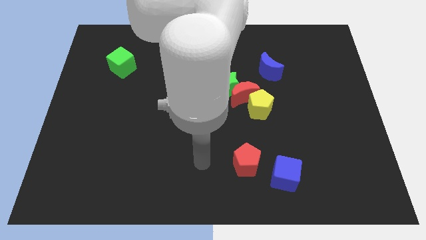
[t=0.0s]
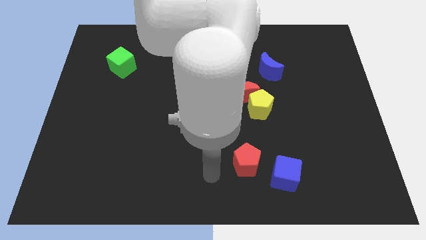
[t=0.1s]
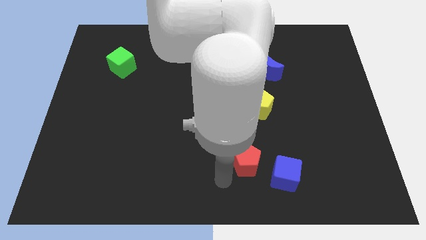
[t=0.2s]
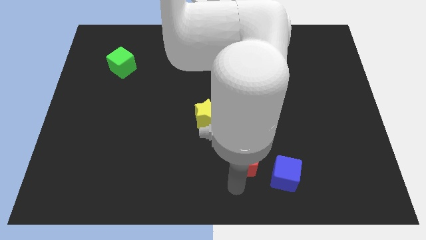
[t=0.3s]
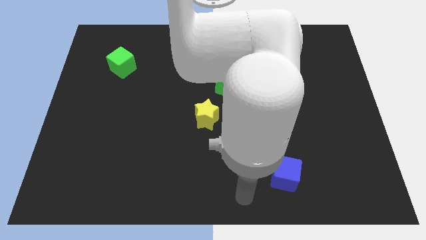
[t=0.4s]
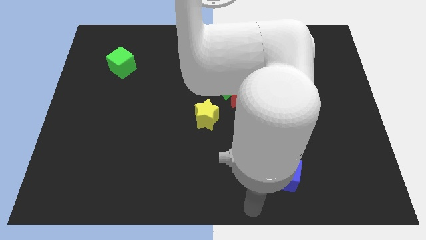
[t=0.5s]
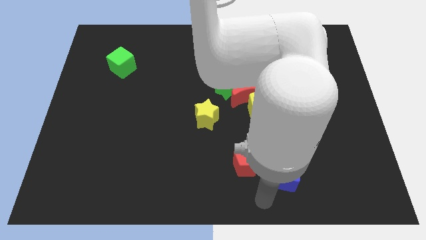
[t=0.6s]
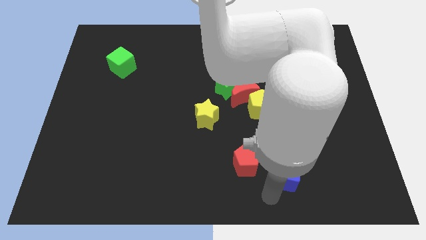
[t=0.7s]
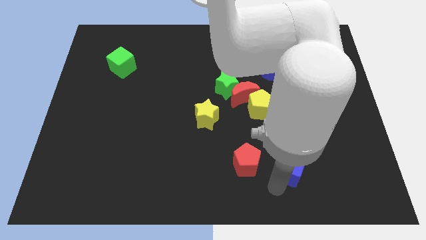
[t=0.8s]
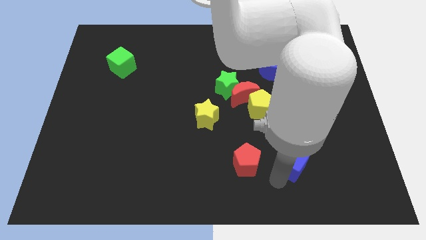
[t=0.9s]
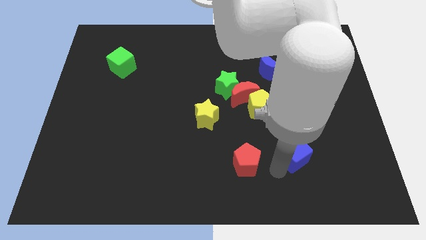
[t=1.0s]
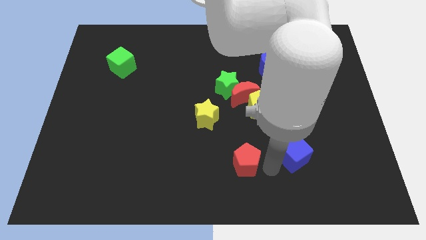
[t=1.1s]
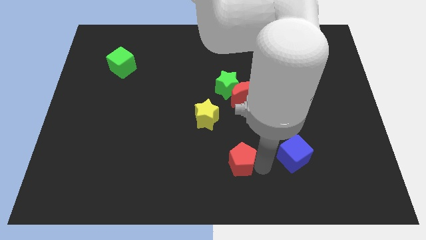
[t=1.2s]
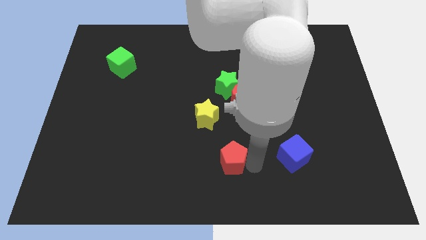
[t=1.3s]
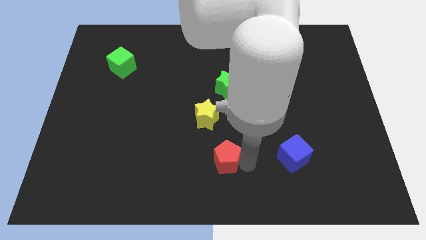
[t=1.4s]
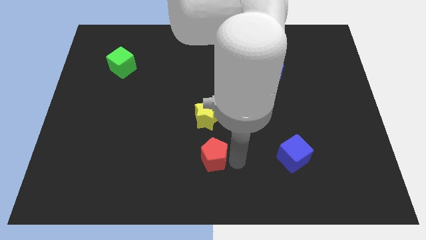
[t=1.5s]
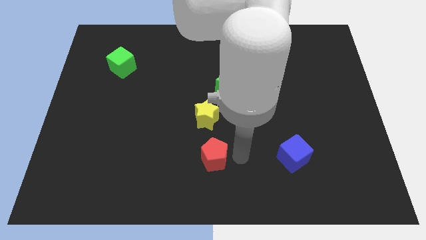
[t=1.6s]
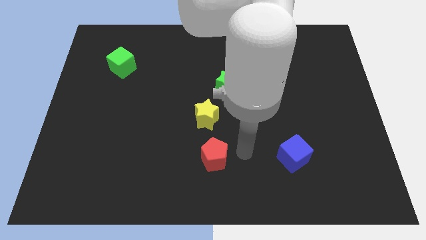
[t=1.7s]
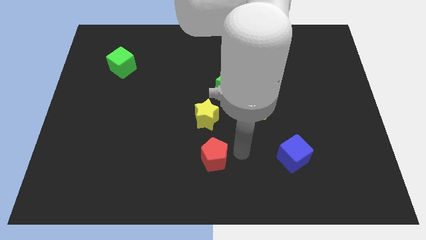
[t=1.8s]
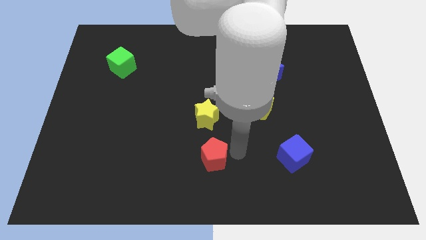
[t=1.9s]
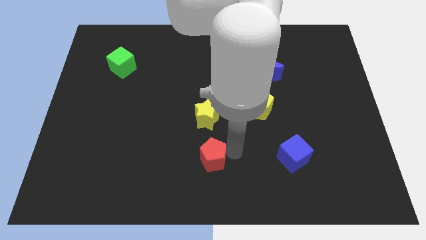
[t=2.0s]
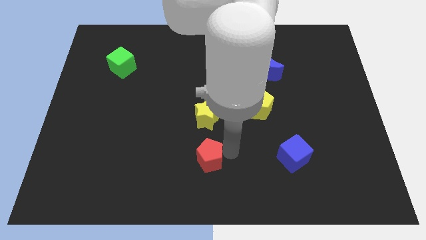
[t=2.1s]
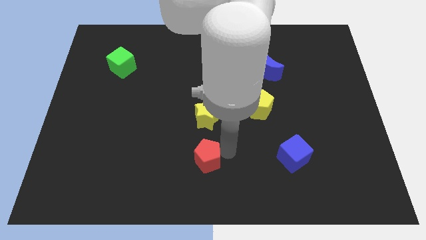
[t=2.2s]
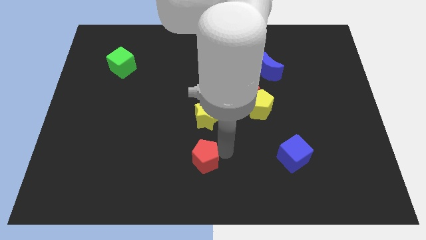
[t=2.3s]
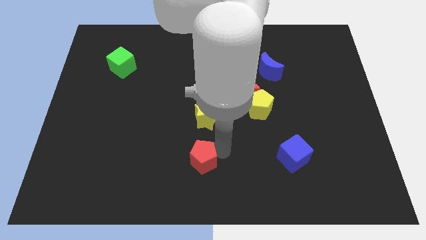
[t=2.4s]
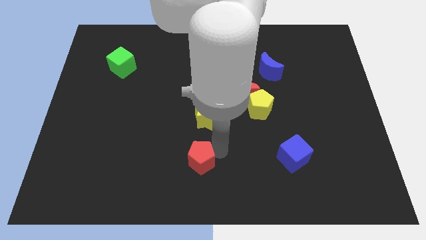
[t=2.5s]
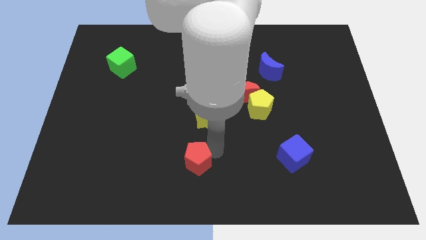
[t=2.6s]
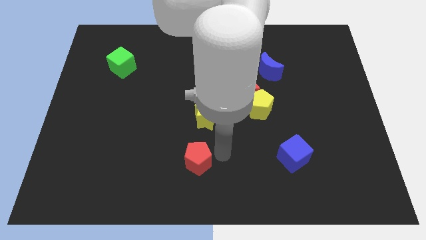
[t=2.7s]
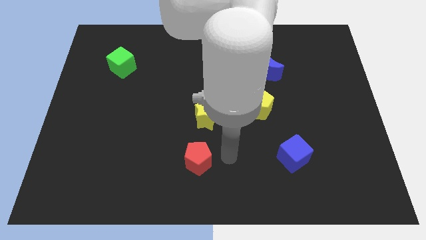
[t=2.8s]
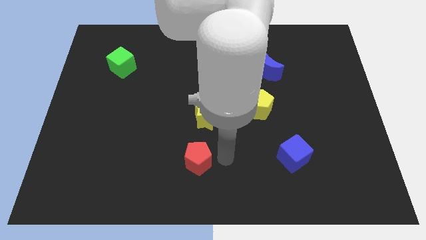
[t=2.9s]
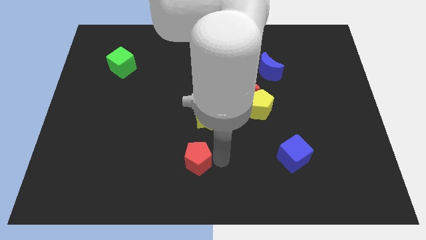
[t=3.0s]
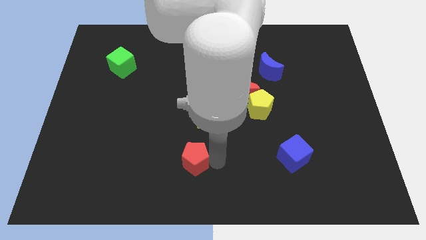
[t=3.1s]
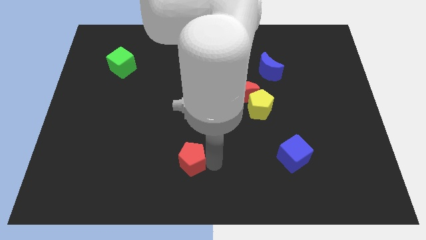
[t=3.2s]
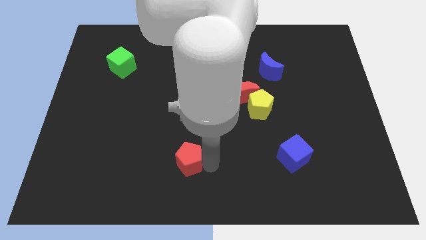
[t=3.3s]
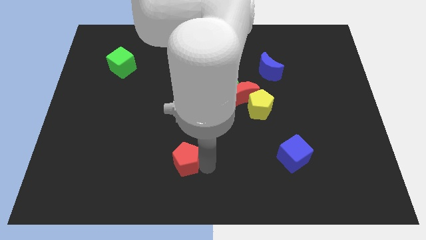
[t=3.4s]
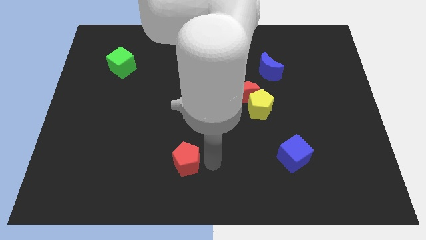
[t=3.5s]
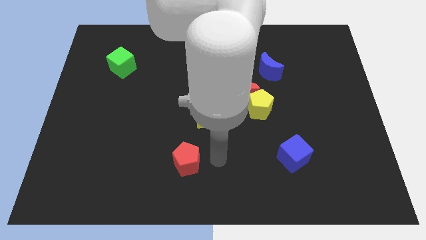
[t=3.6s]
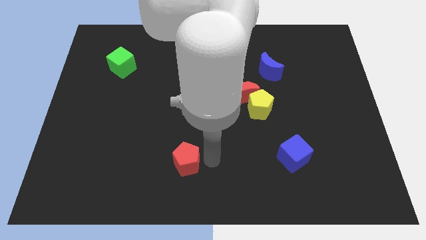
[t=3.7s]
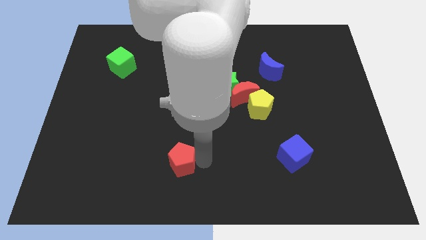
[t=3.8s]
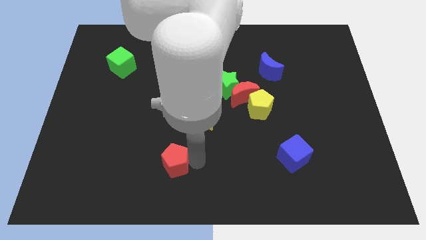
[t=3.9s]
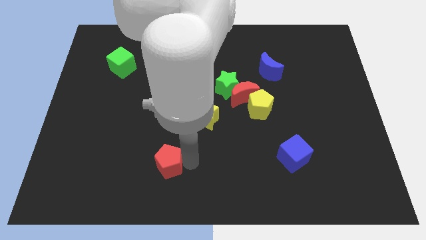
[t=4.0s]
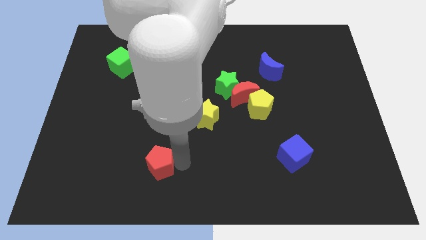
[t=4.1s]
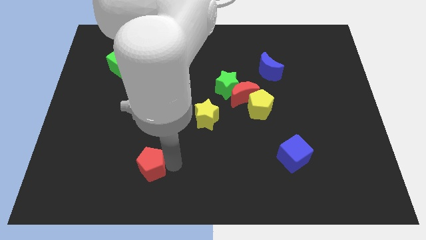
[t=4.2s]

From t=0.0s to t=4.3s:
push the red pentagon to the left

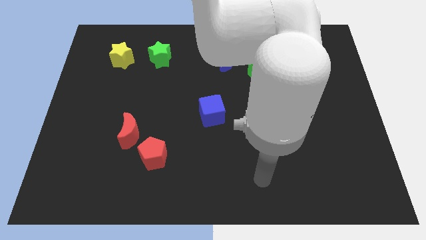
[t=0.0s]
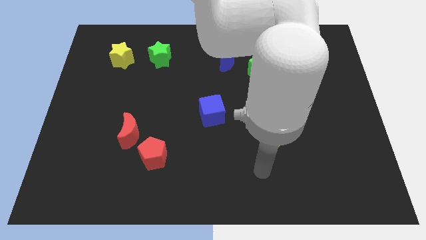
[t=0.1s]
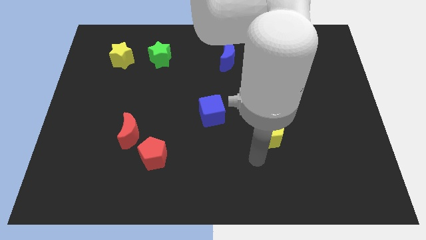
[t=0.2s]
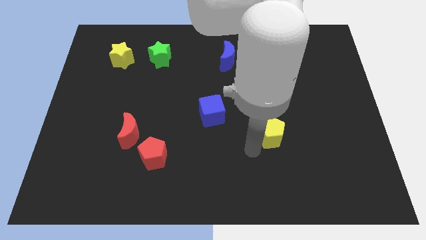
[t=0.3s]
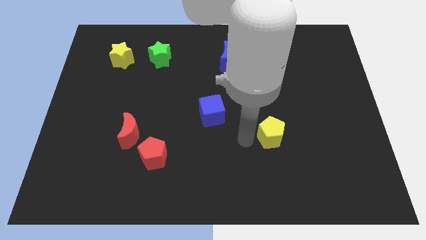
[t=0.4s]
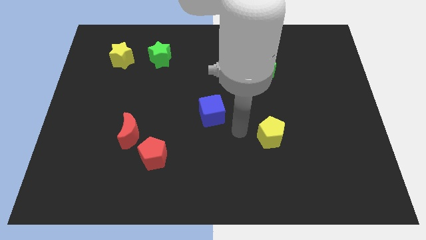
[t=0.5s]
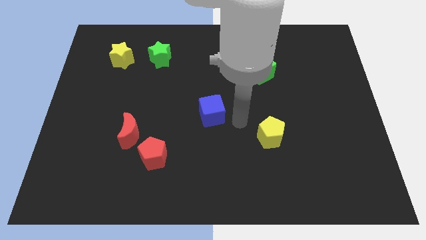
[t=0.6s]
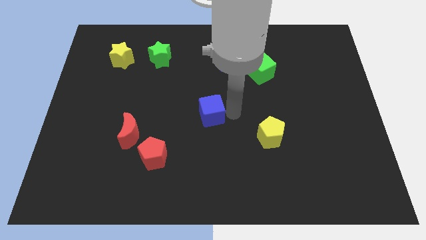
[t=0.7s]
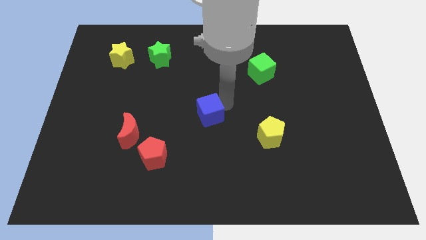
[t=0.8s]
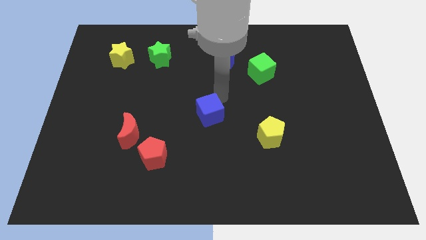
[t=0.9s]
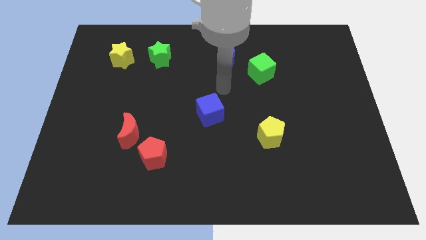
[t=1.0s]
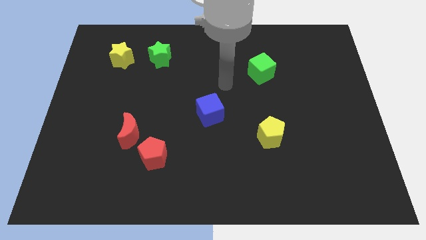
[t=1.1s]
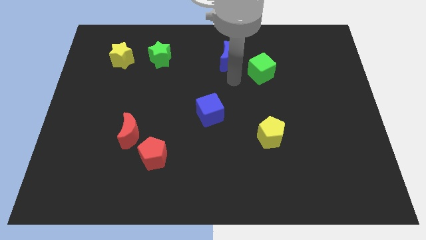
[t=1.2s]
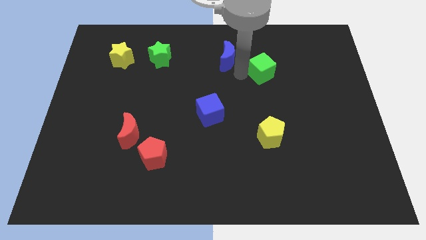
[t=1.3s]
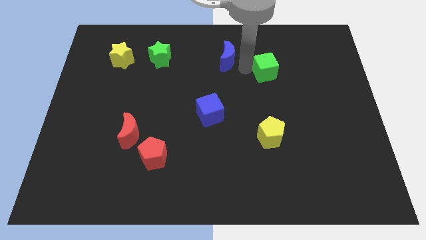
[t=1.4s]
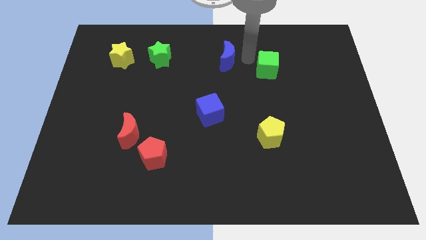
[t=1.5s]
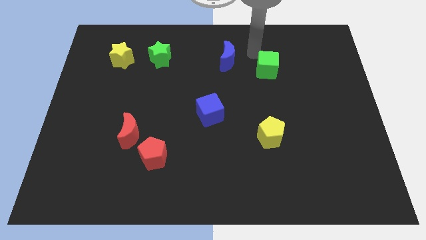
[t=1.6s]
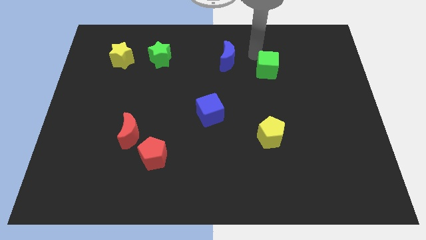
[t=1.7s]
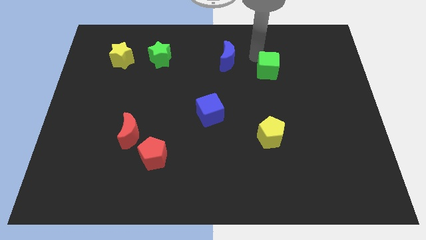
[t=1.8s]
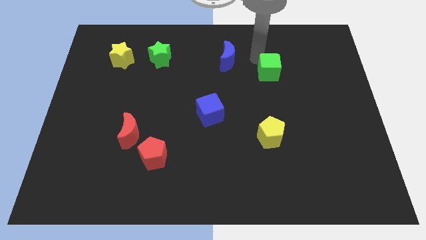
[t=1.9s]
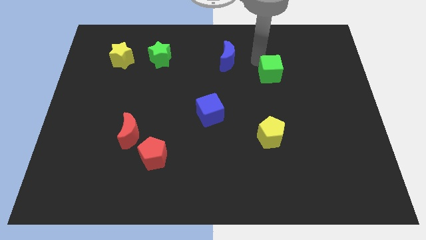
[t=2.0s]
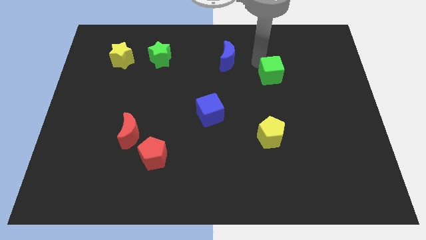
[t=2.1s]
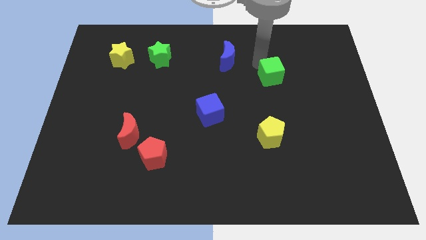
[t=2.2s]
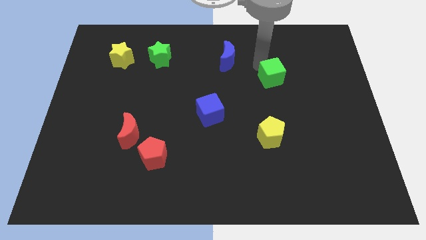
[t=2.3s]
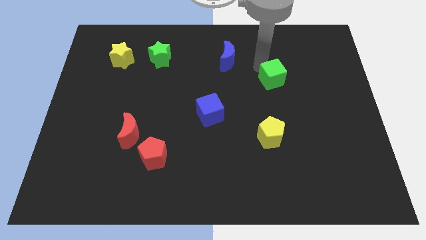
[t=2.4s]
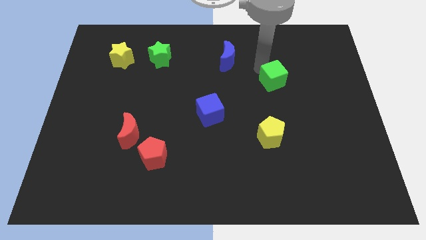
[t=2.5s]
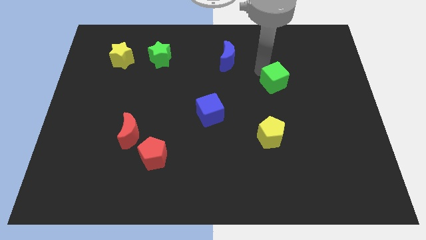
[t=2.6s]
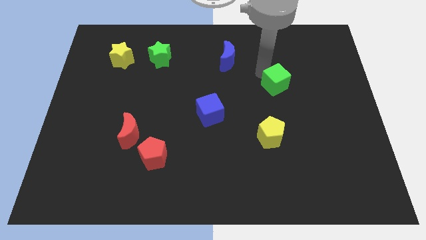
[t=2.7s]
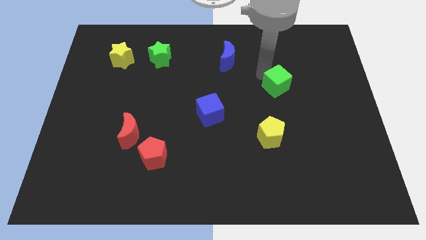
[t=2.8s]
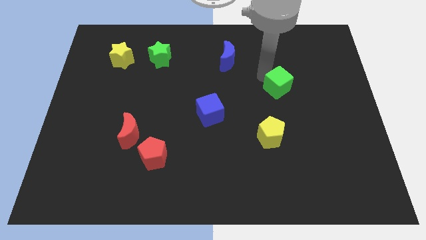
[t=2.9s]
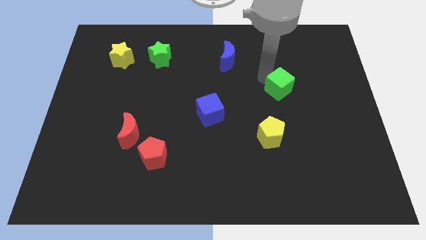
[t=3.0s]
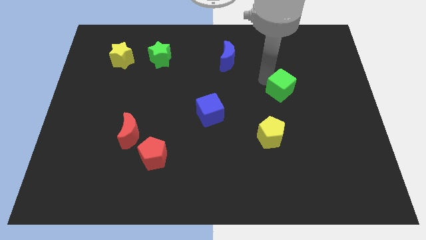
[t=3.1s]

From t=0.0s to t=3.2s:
push the green cube a little diagonally down and to the right

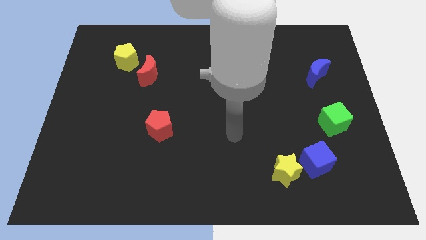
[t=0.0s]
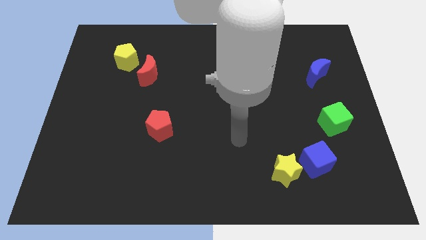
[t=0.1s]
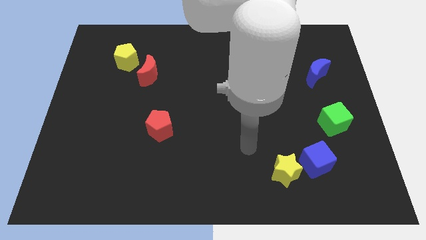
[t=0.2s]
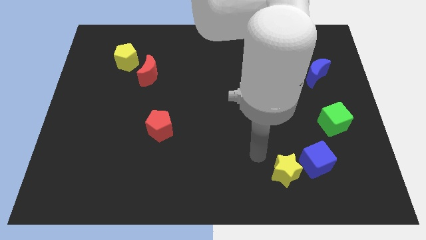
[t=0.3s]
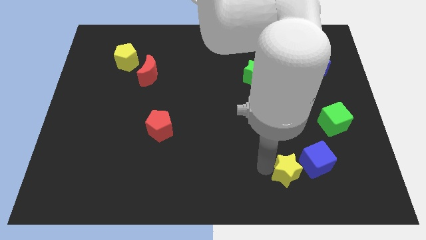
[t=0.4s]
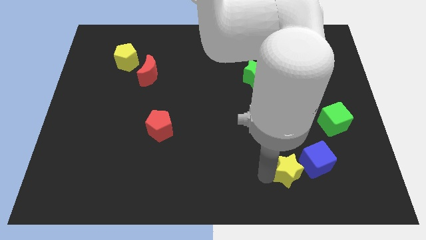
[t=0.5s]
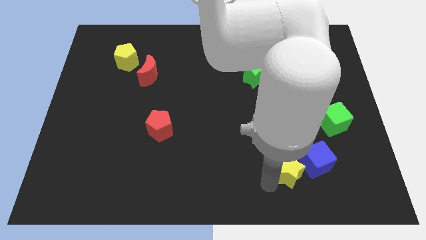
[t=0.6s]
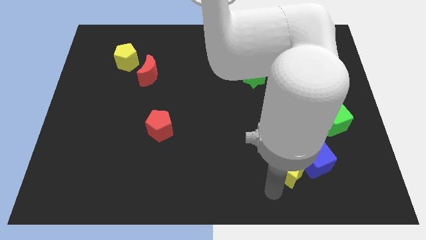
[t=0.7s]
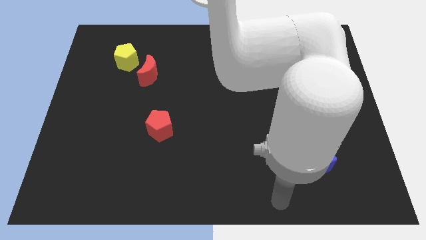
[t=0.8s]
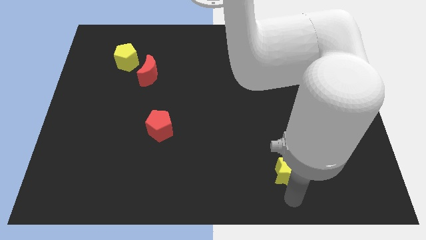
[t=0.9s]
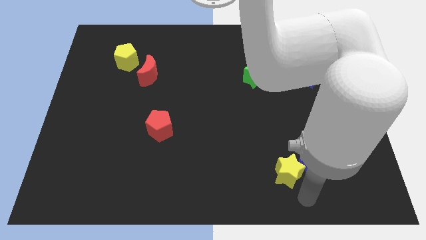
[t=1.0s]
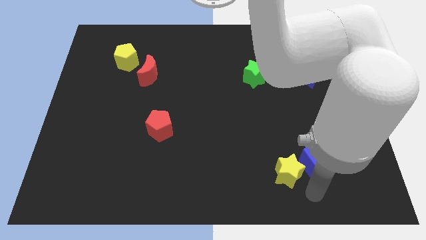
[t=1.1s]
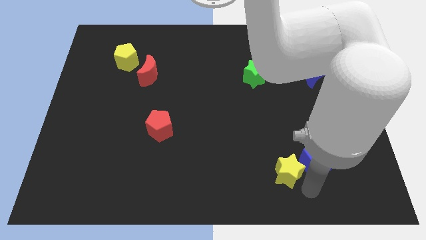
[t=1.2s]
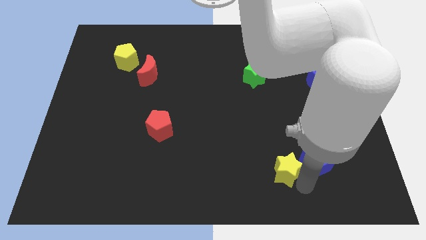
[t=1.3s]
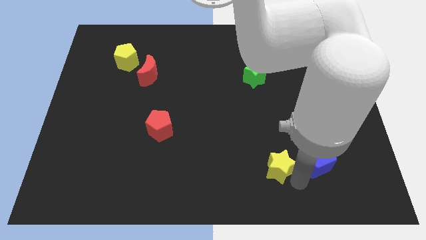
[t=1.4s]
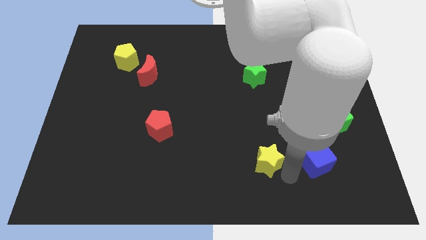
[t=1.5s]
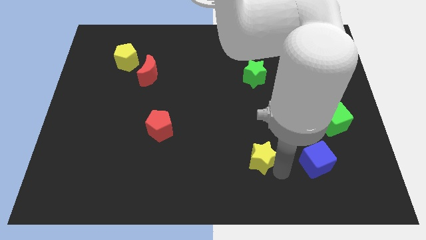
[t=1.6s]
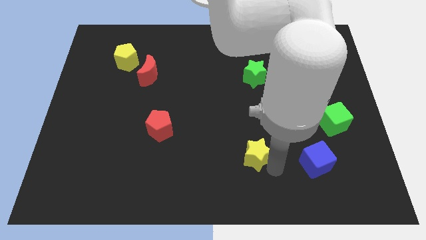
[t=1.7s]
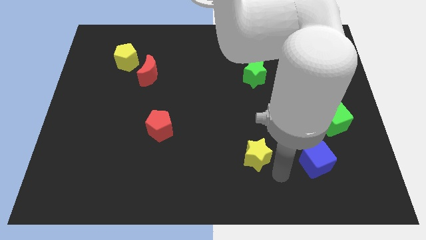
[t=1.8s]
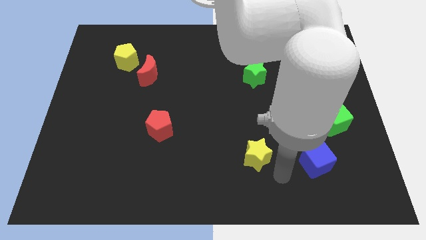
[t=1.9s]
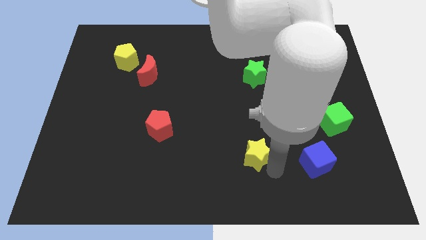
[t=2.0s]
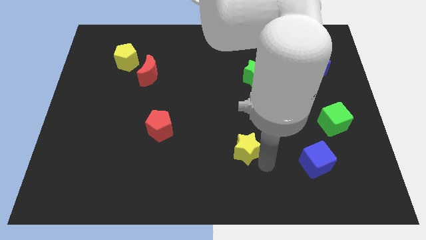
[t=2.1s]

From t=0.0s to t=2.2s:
move the yellow star somewhat up and then left
